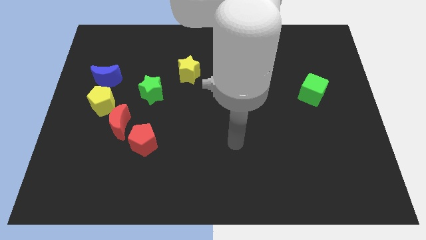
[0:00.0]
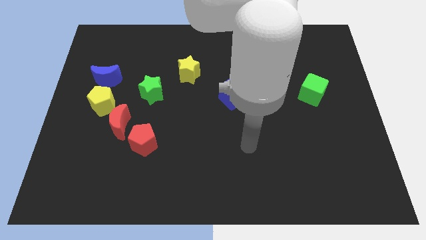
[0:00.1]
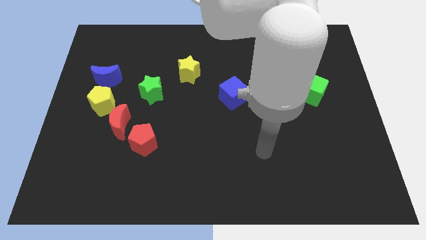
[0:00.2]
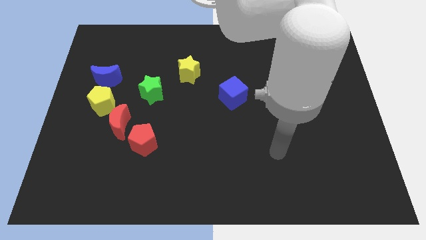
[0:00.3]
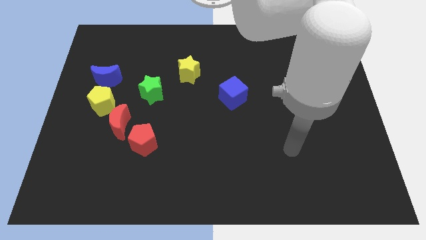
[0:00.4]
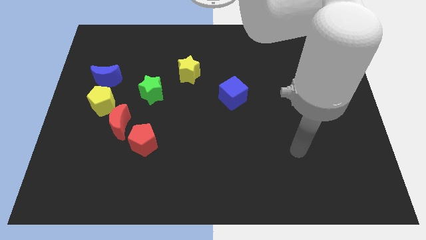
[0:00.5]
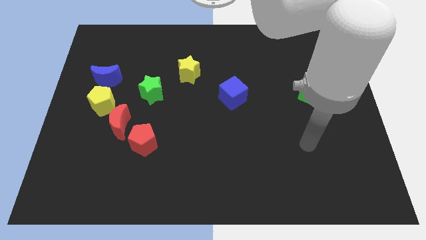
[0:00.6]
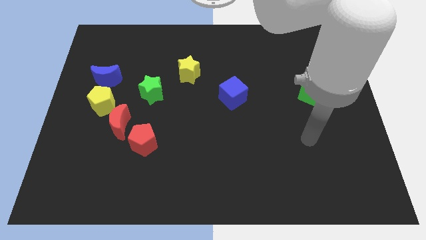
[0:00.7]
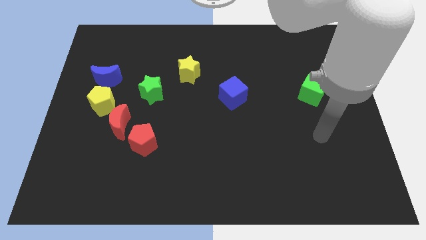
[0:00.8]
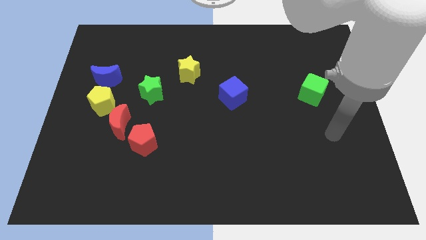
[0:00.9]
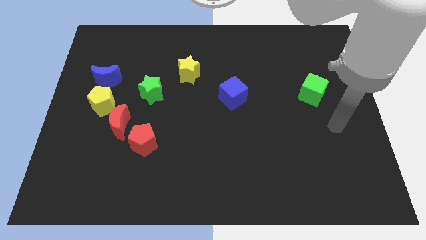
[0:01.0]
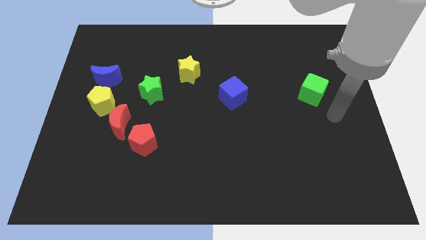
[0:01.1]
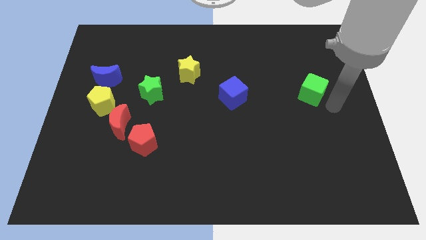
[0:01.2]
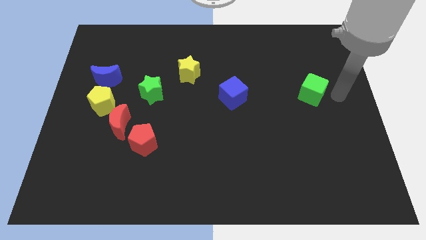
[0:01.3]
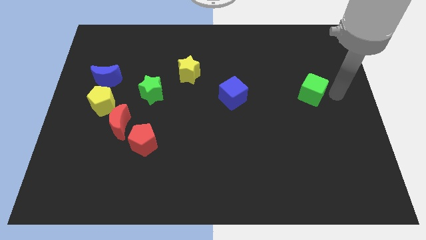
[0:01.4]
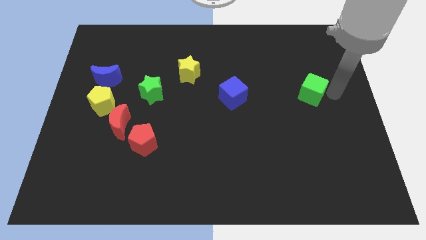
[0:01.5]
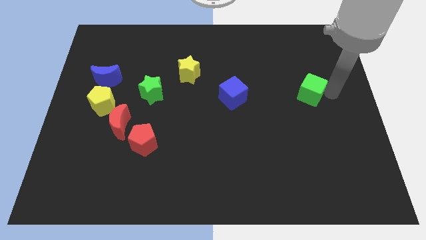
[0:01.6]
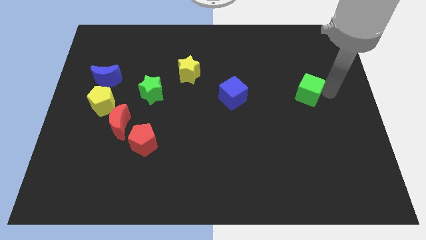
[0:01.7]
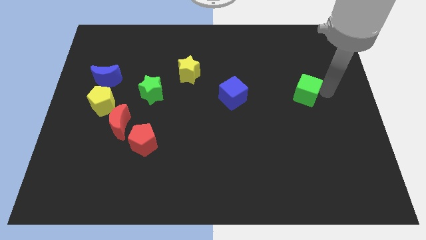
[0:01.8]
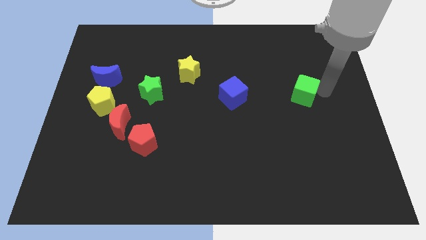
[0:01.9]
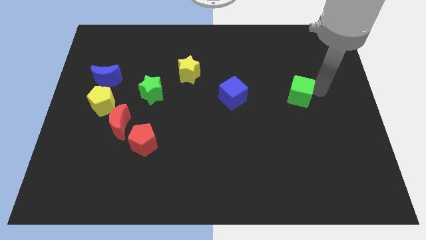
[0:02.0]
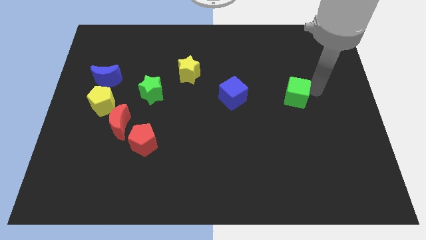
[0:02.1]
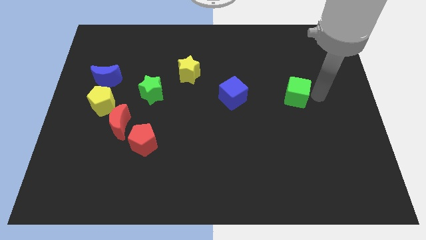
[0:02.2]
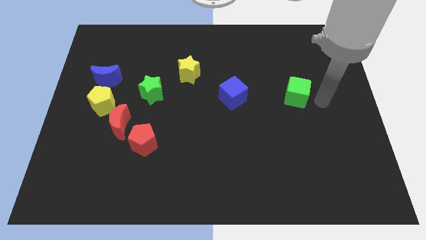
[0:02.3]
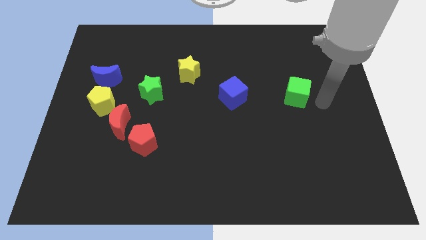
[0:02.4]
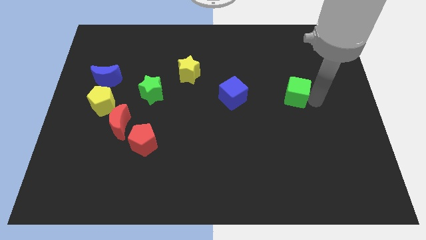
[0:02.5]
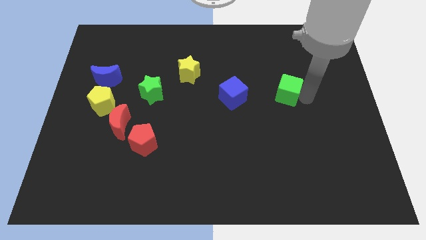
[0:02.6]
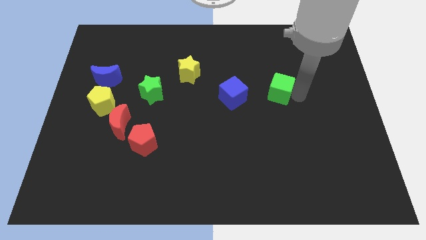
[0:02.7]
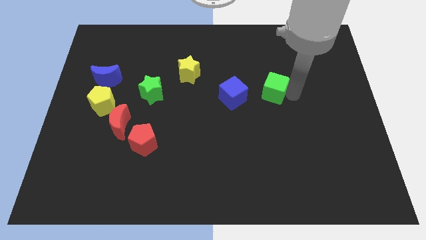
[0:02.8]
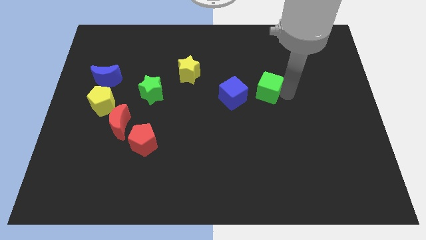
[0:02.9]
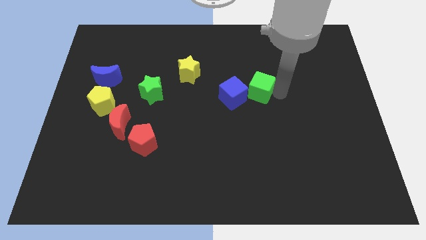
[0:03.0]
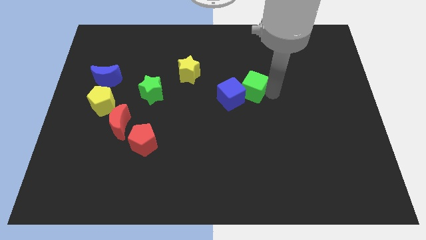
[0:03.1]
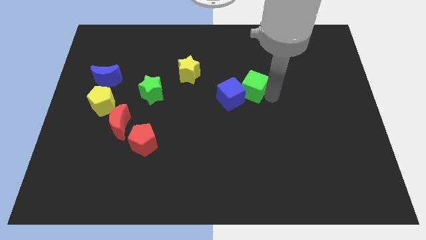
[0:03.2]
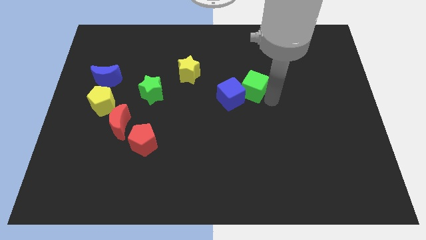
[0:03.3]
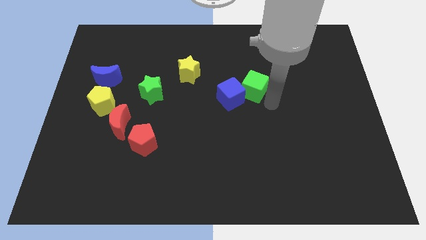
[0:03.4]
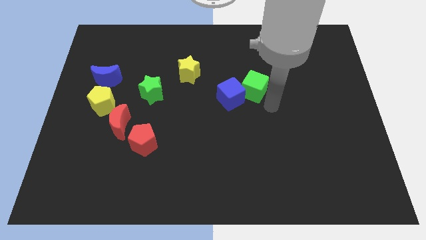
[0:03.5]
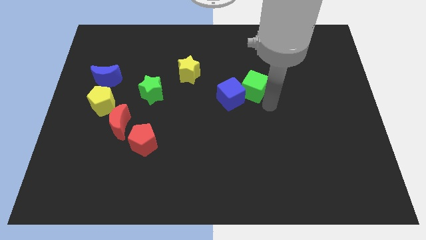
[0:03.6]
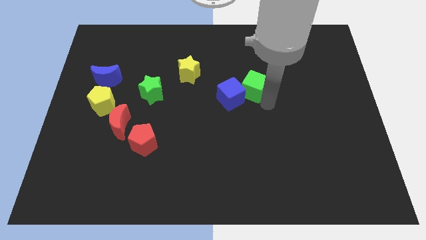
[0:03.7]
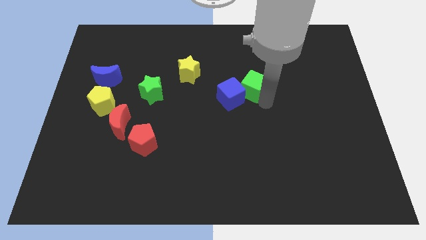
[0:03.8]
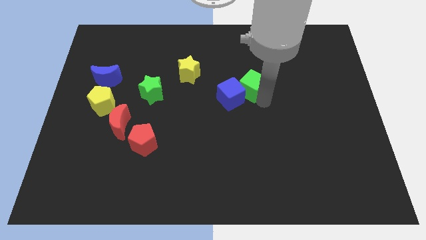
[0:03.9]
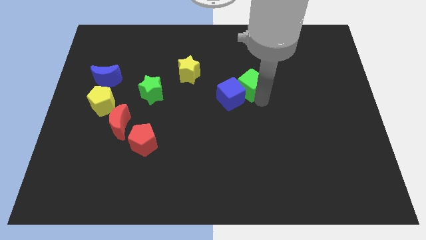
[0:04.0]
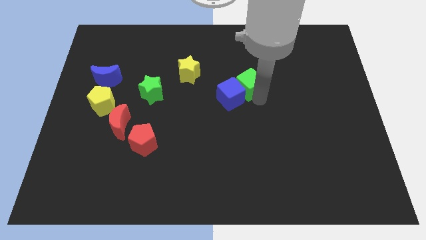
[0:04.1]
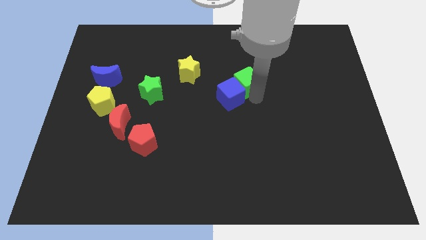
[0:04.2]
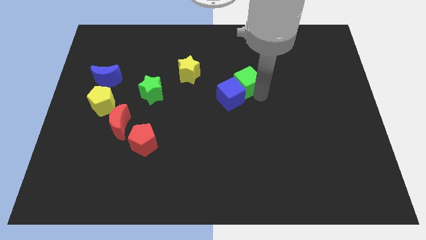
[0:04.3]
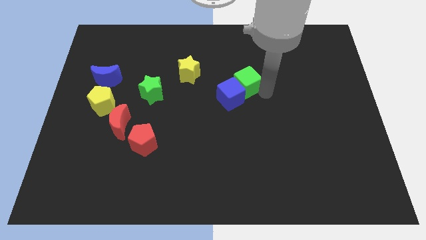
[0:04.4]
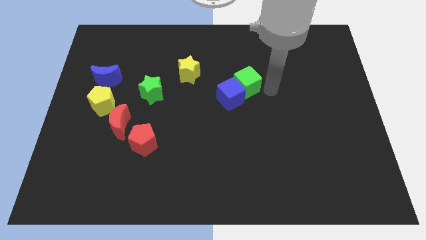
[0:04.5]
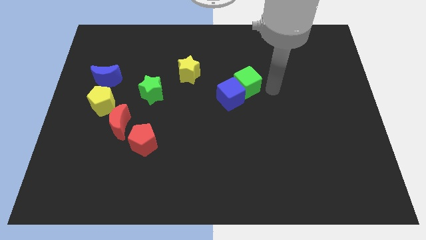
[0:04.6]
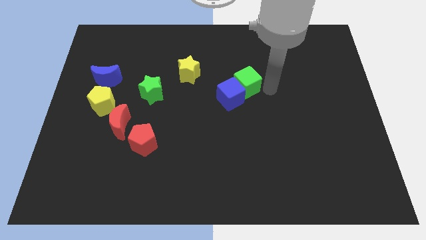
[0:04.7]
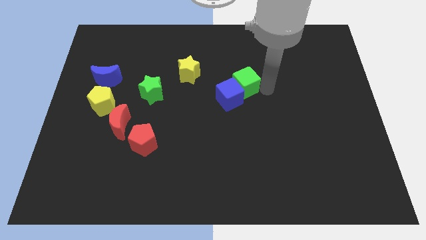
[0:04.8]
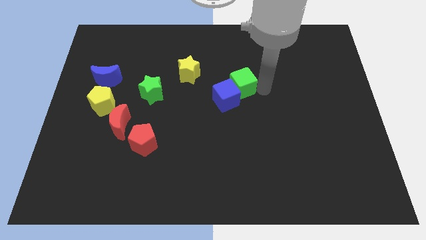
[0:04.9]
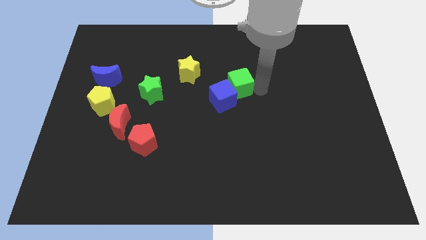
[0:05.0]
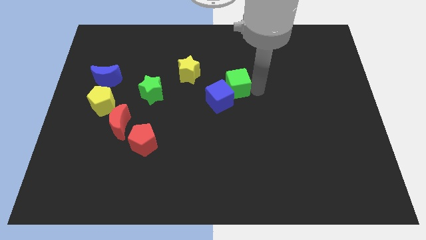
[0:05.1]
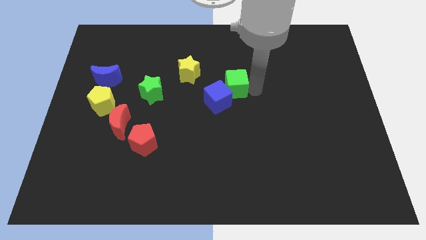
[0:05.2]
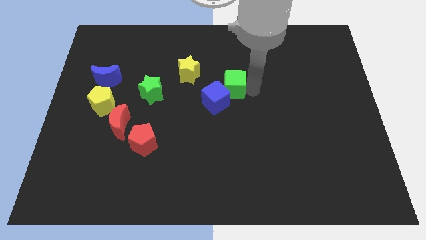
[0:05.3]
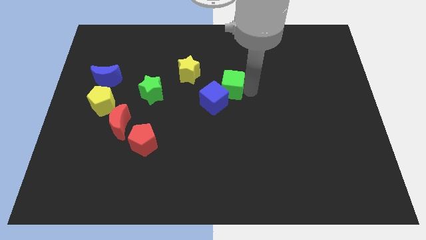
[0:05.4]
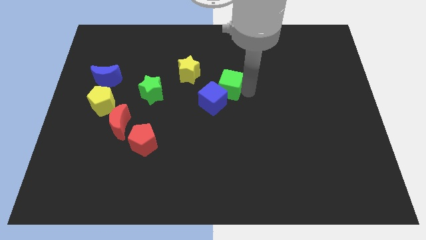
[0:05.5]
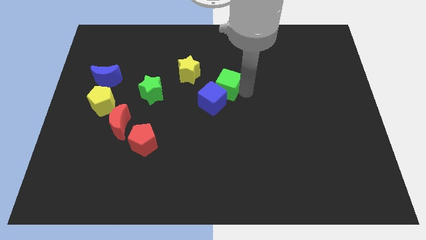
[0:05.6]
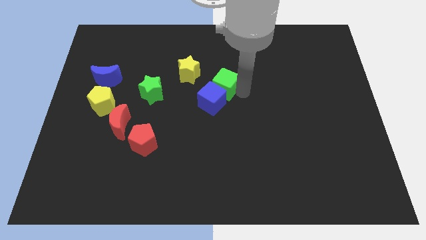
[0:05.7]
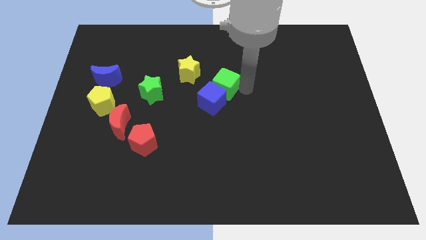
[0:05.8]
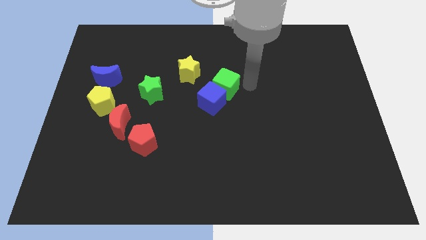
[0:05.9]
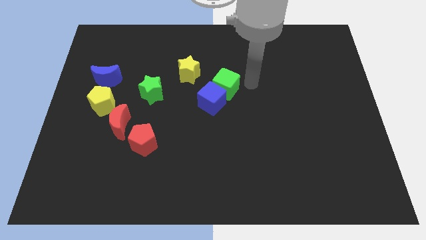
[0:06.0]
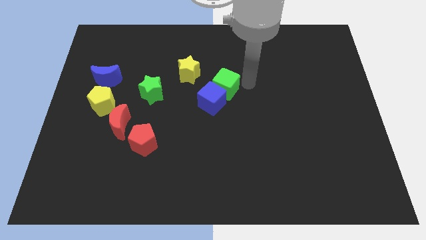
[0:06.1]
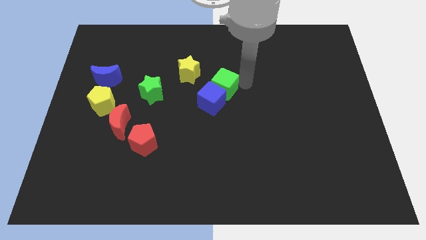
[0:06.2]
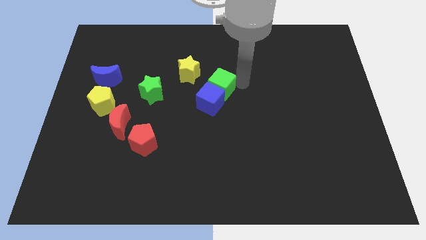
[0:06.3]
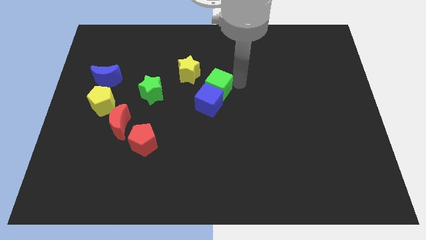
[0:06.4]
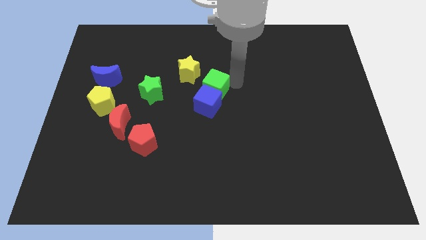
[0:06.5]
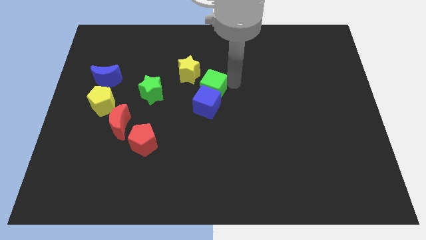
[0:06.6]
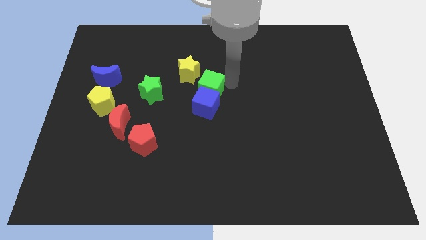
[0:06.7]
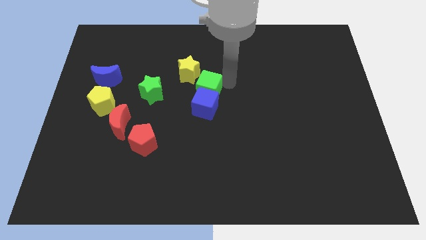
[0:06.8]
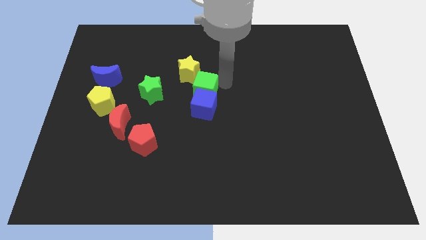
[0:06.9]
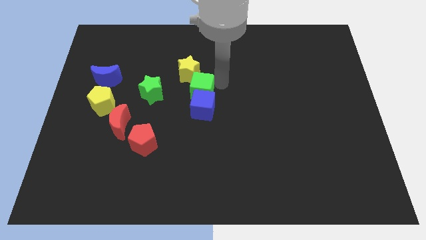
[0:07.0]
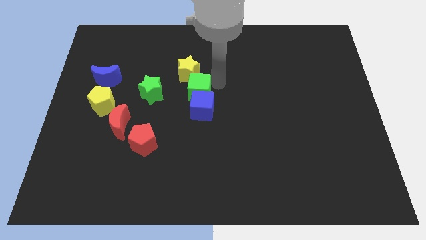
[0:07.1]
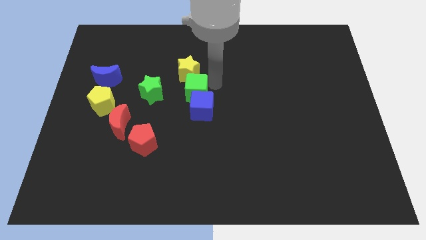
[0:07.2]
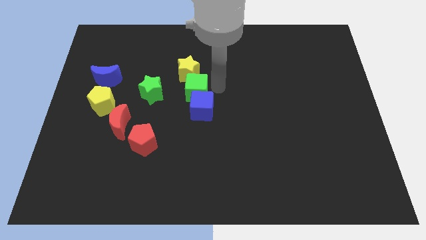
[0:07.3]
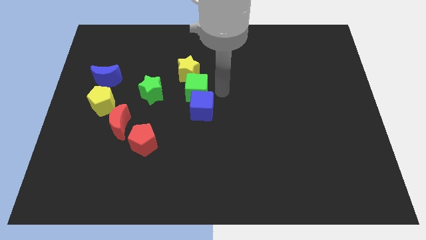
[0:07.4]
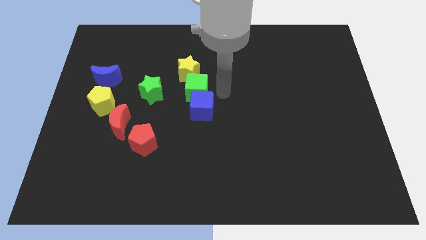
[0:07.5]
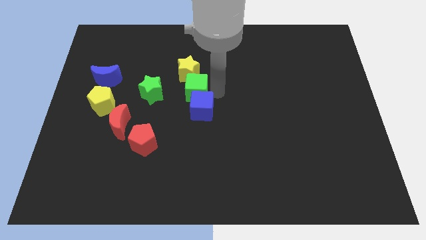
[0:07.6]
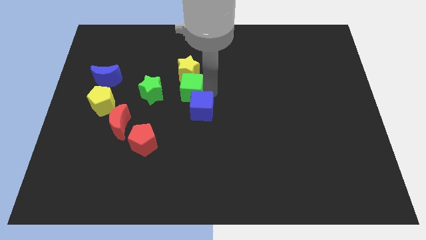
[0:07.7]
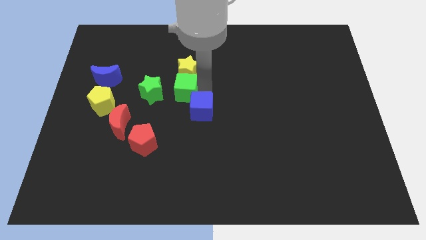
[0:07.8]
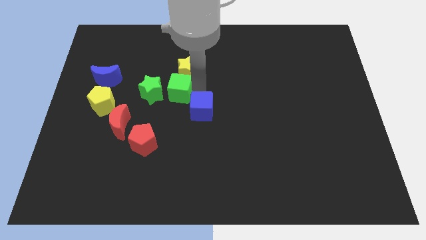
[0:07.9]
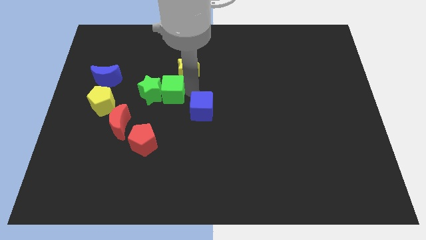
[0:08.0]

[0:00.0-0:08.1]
move the green cube close to the green star
